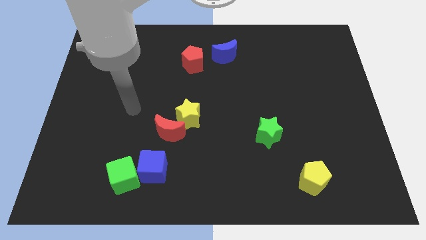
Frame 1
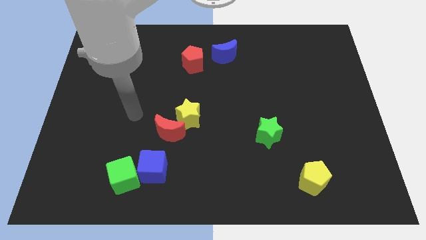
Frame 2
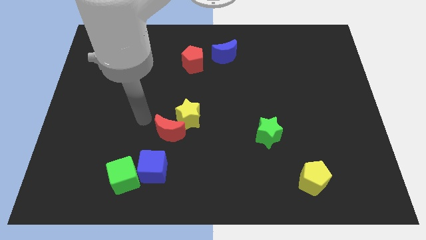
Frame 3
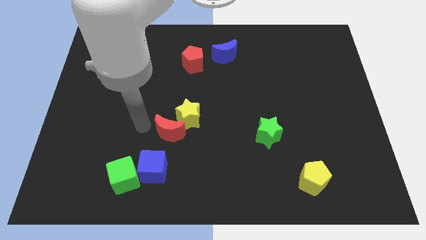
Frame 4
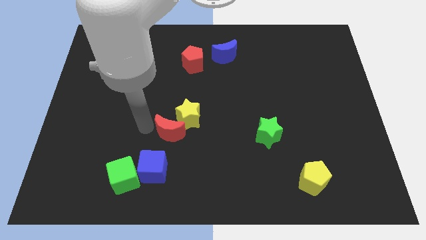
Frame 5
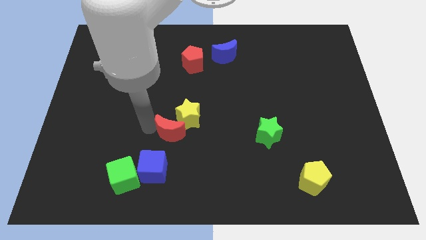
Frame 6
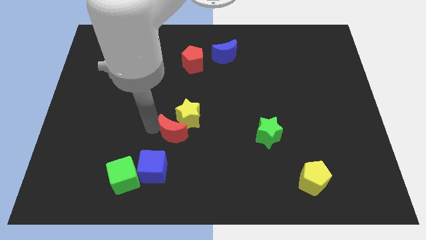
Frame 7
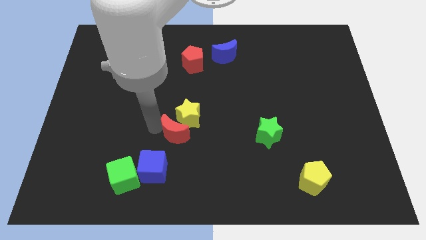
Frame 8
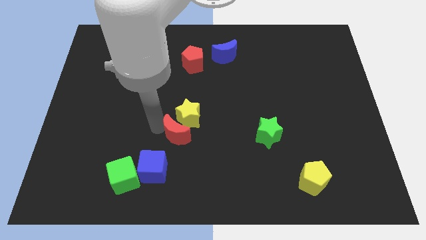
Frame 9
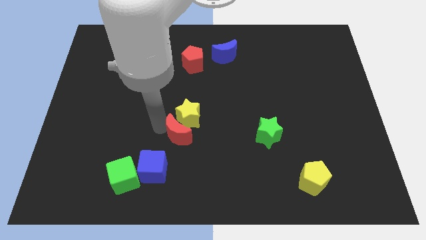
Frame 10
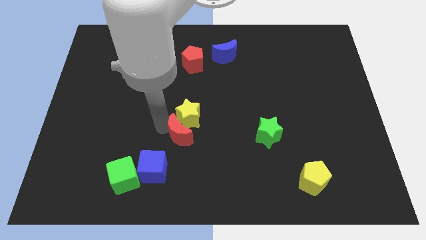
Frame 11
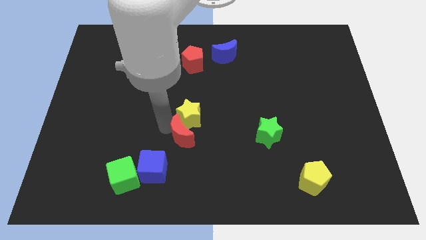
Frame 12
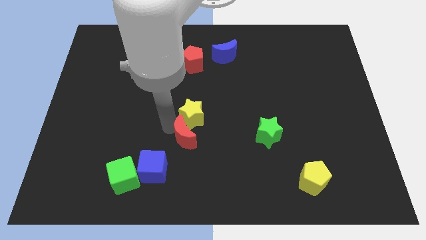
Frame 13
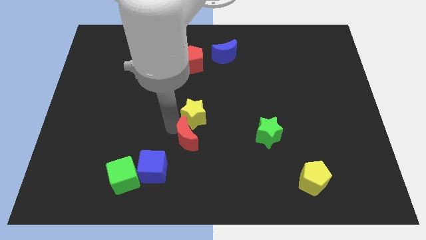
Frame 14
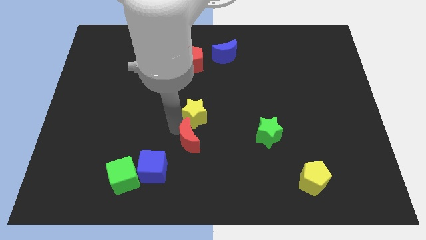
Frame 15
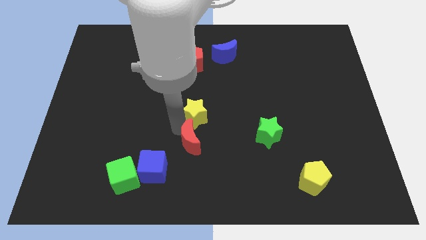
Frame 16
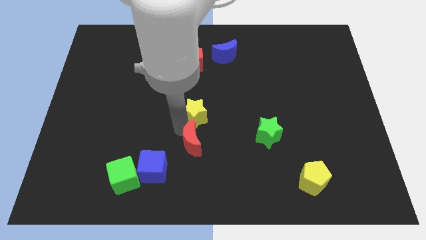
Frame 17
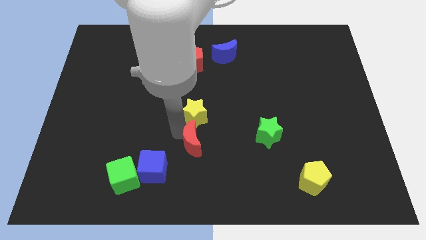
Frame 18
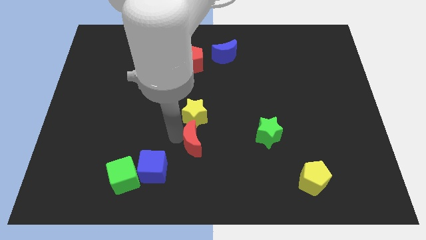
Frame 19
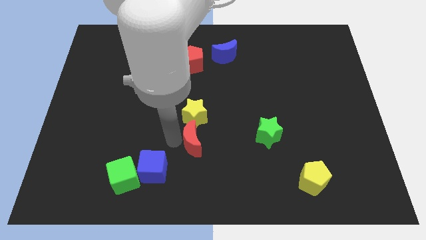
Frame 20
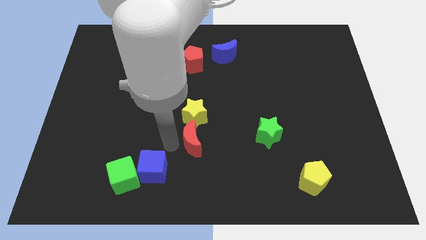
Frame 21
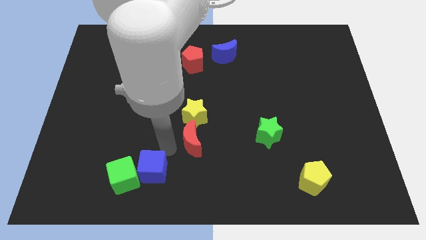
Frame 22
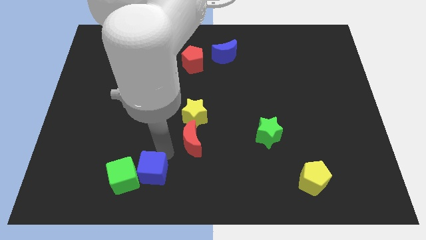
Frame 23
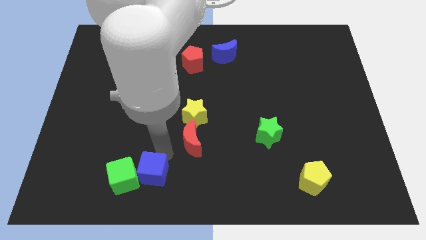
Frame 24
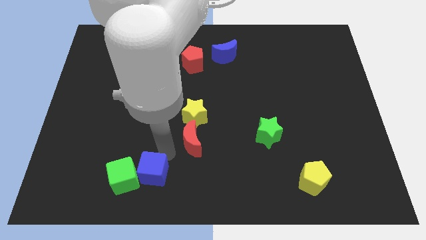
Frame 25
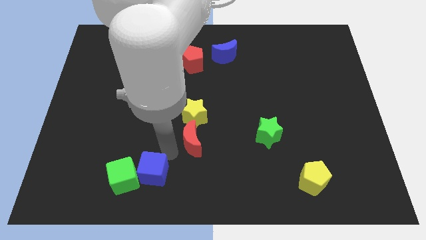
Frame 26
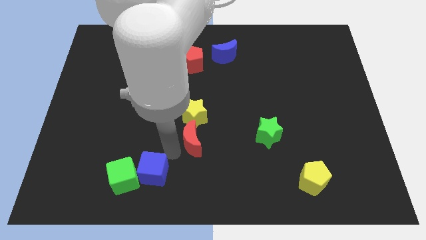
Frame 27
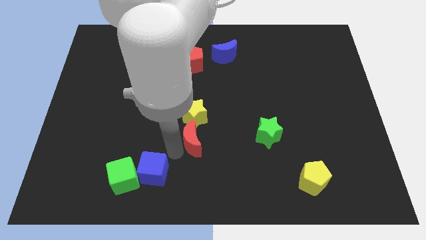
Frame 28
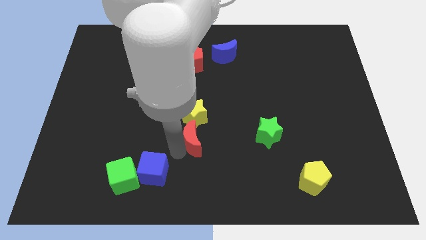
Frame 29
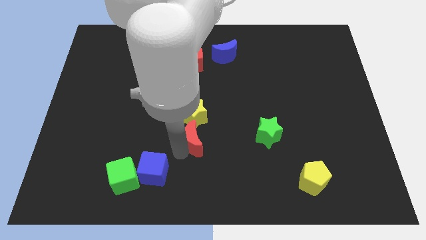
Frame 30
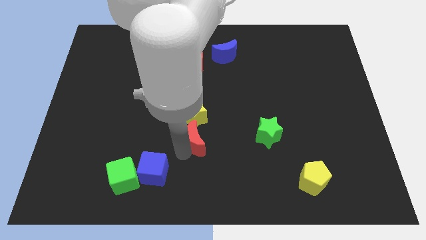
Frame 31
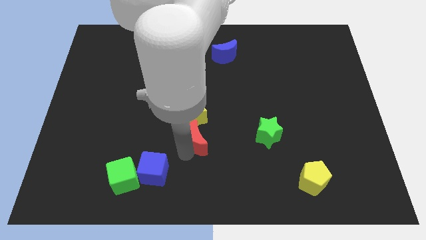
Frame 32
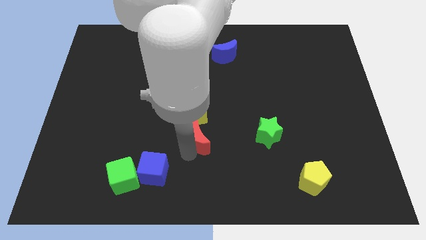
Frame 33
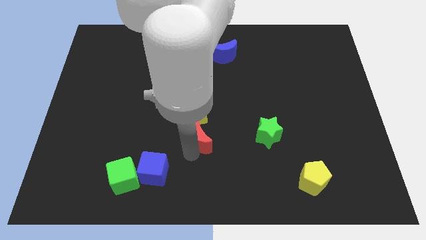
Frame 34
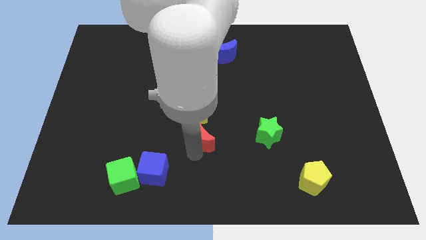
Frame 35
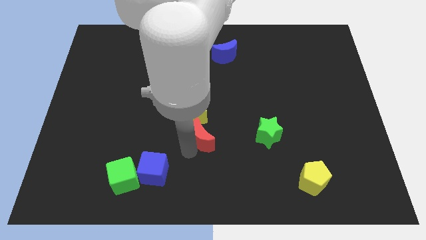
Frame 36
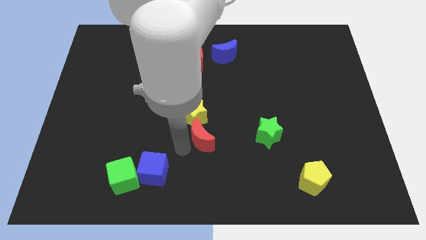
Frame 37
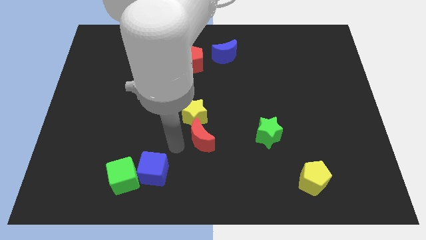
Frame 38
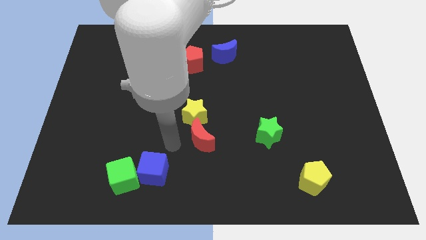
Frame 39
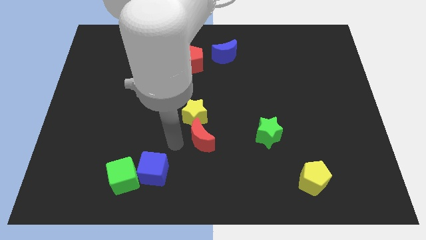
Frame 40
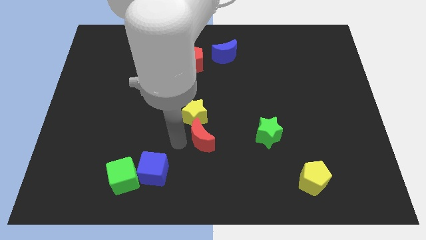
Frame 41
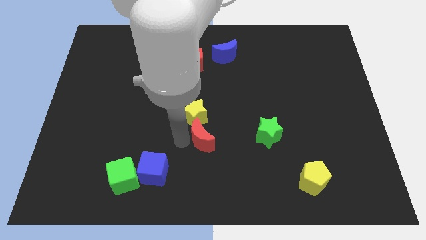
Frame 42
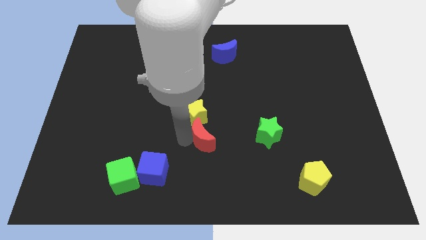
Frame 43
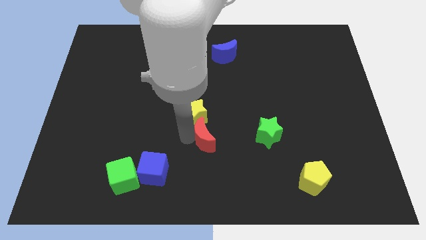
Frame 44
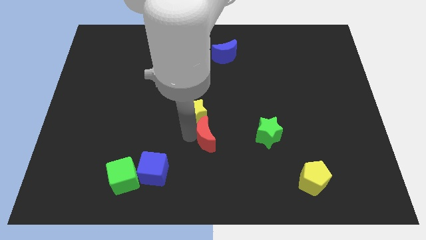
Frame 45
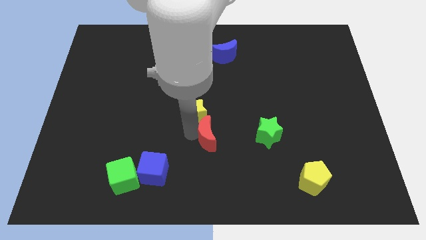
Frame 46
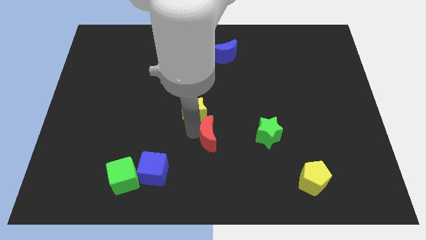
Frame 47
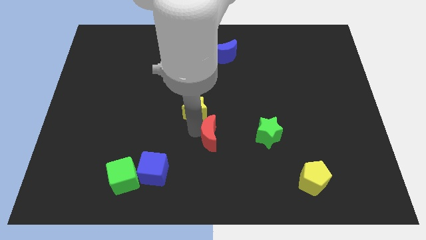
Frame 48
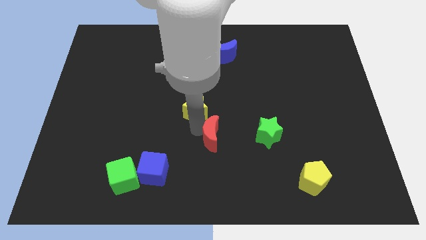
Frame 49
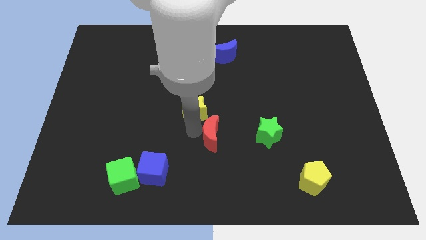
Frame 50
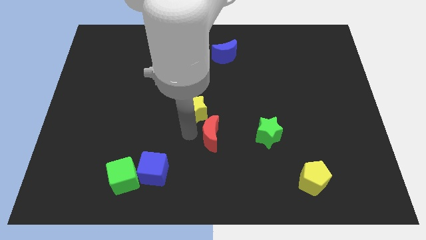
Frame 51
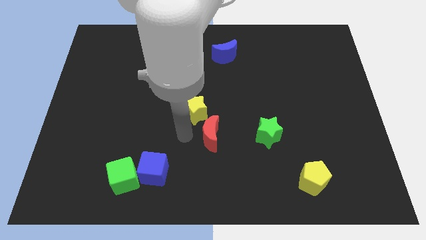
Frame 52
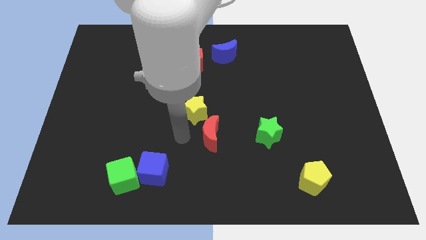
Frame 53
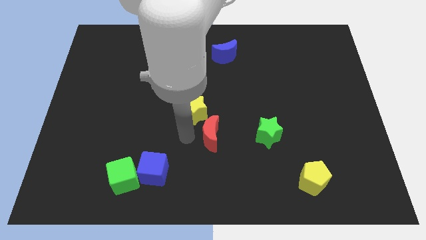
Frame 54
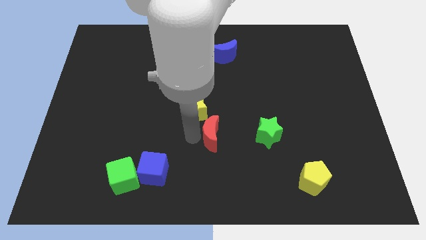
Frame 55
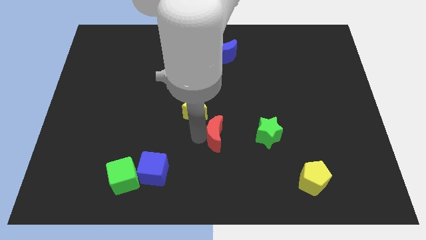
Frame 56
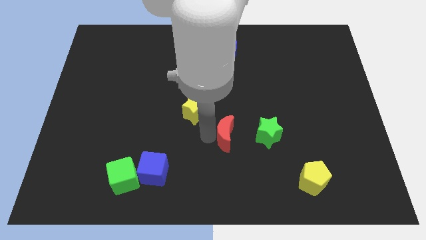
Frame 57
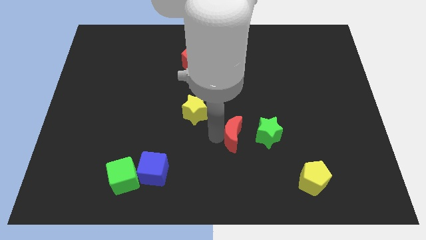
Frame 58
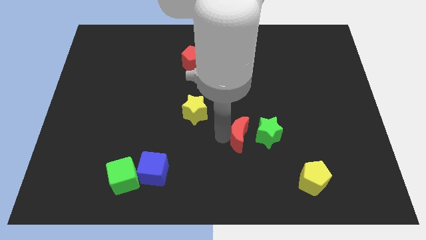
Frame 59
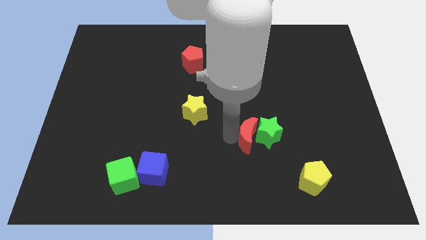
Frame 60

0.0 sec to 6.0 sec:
put the red moon to the green star
